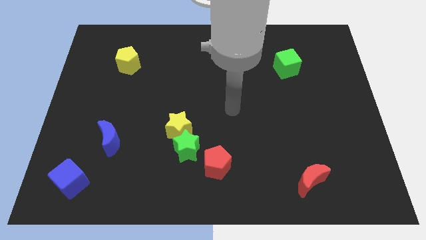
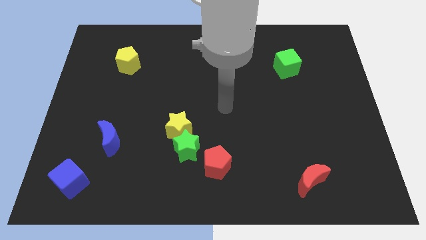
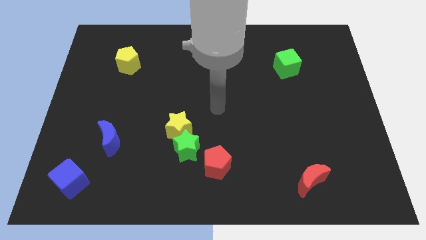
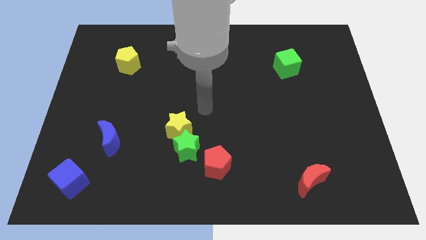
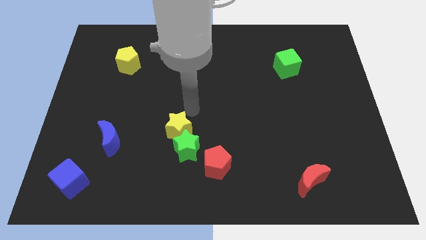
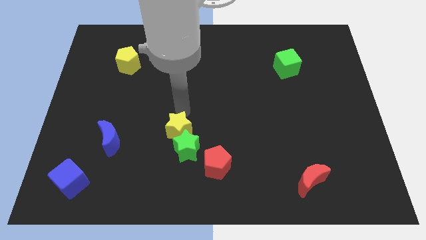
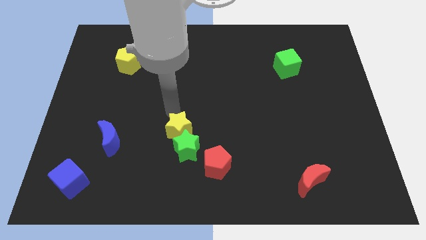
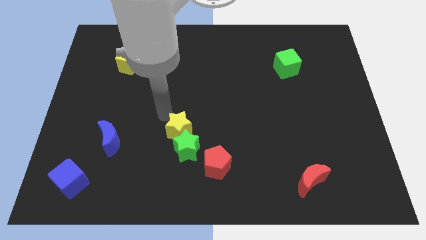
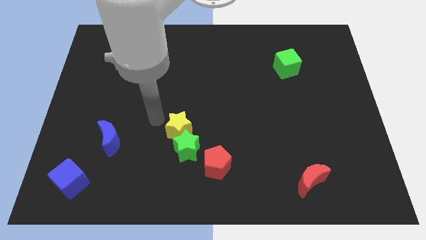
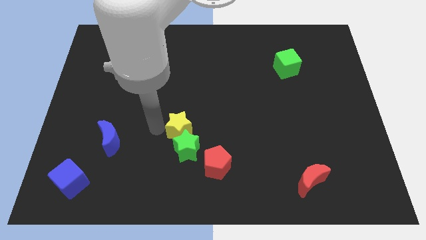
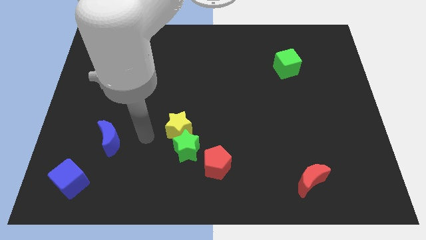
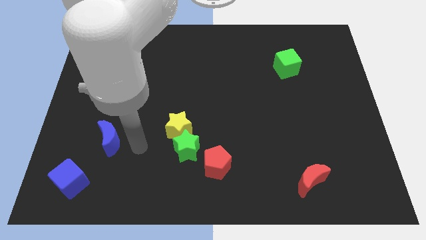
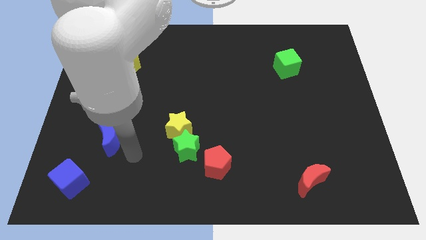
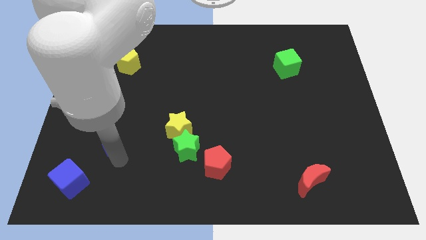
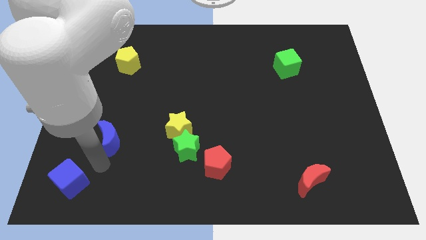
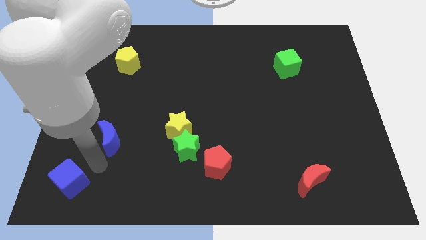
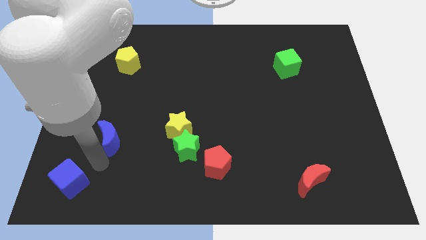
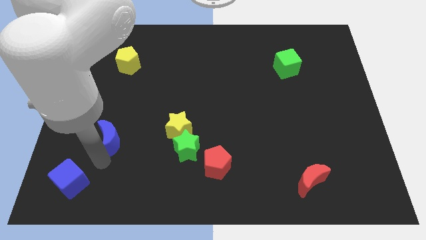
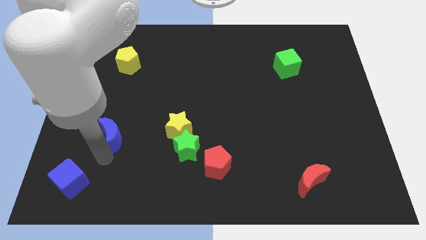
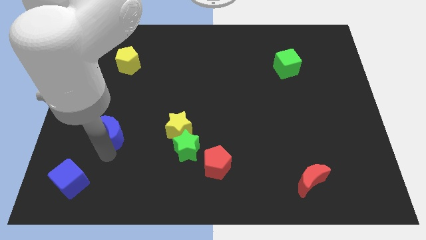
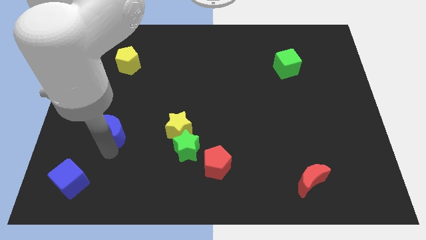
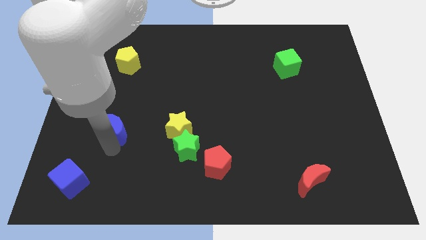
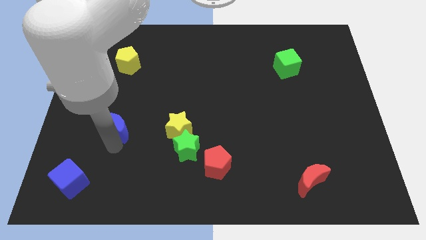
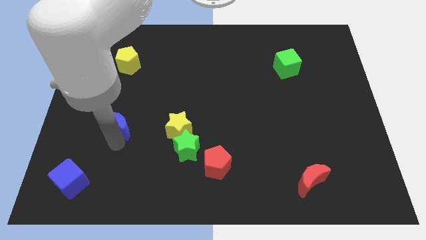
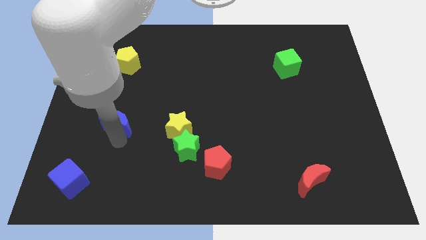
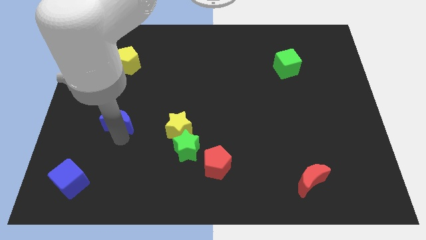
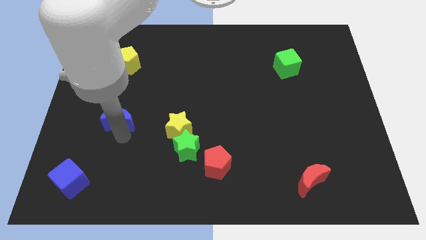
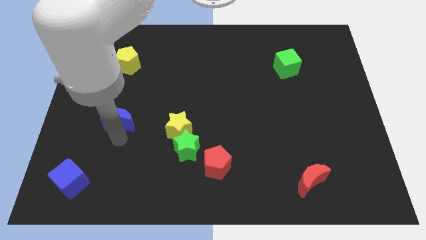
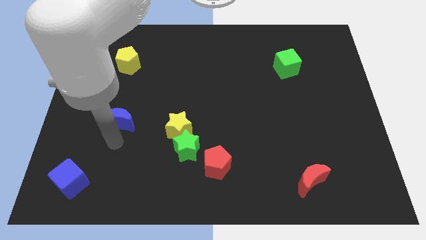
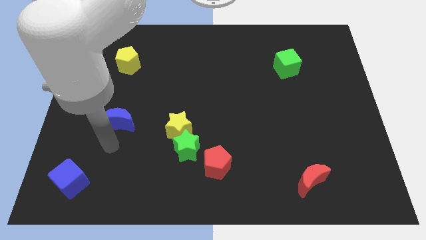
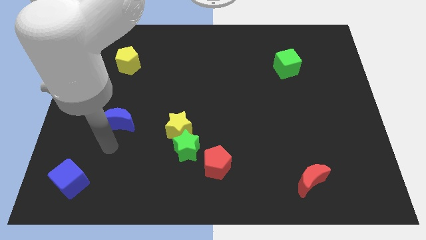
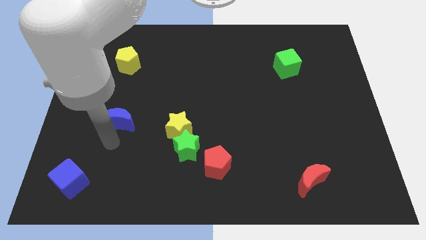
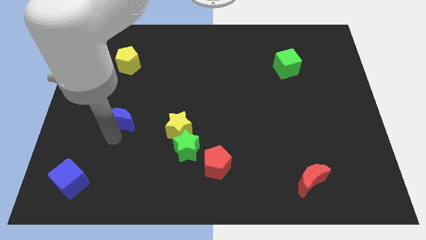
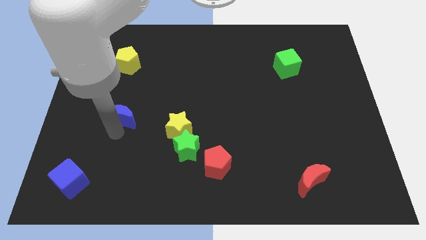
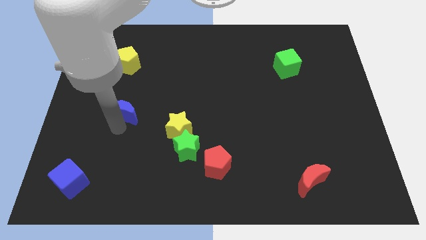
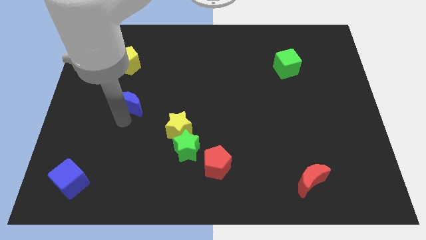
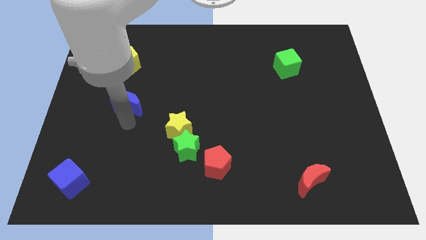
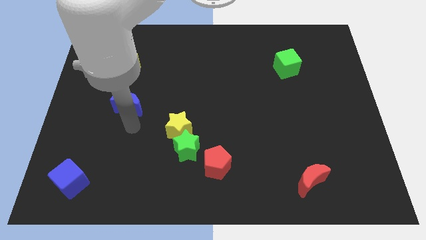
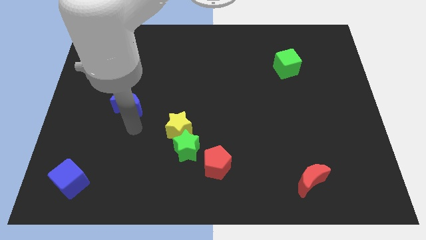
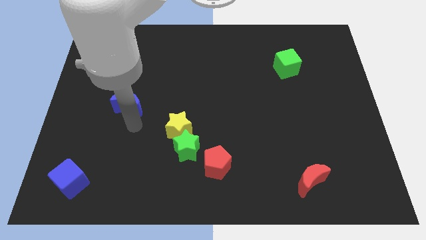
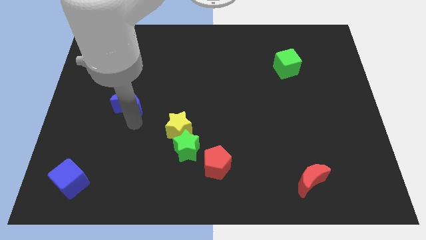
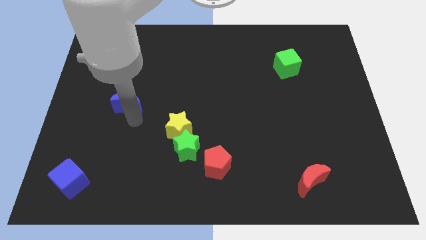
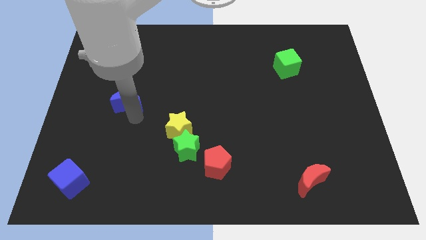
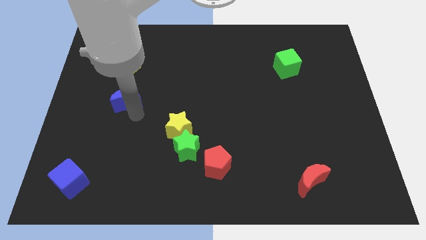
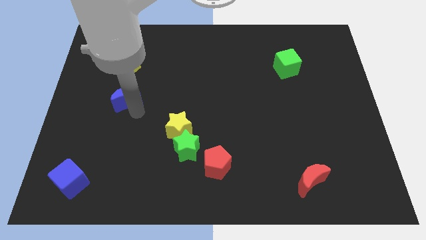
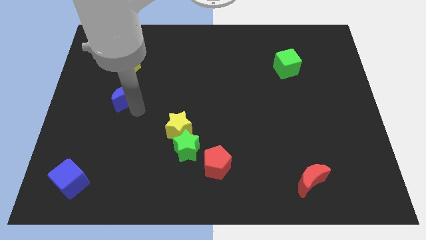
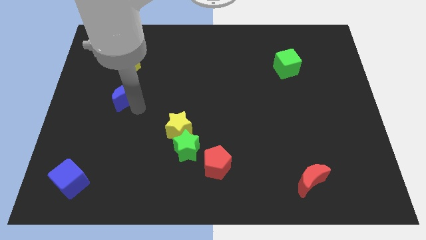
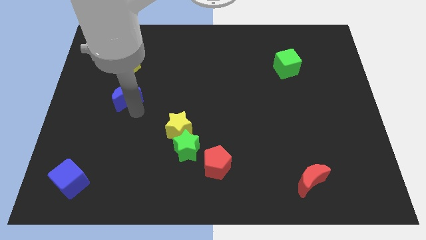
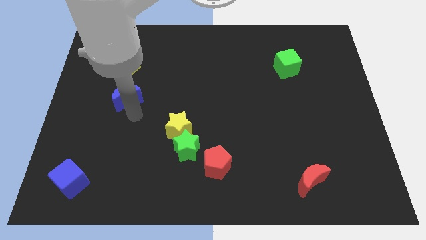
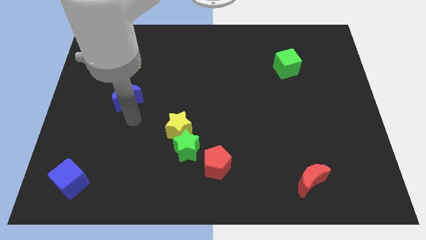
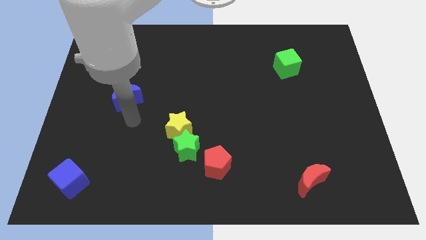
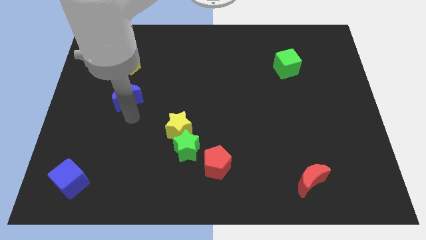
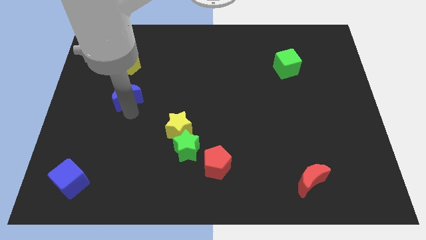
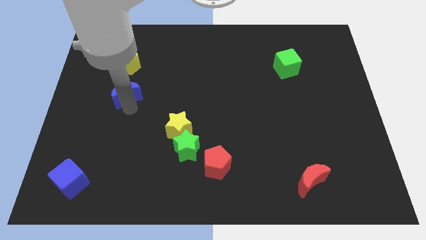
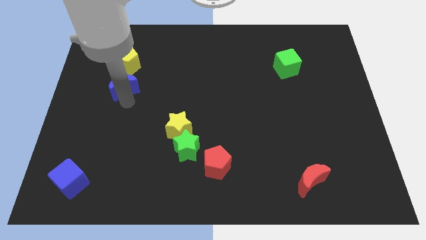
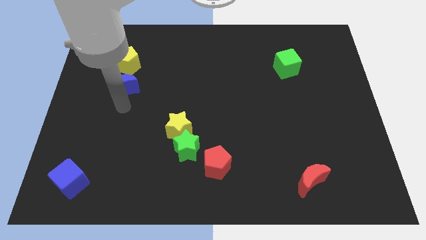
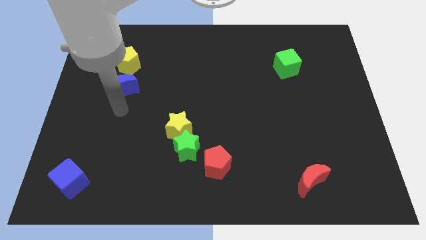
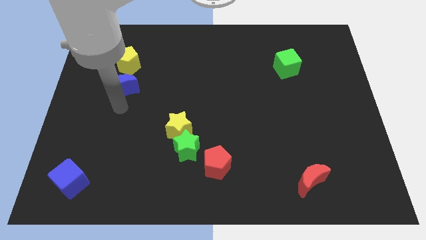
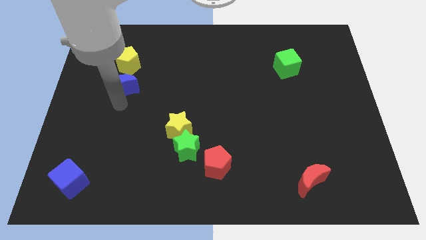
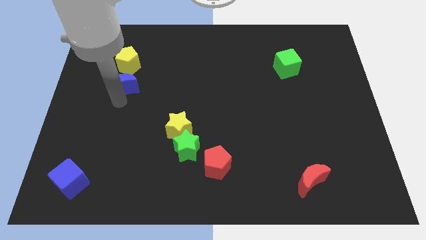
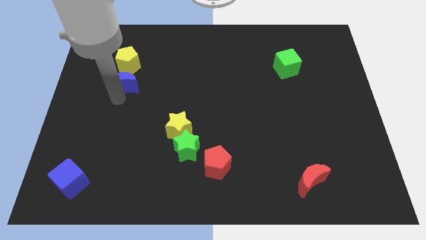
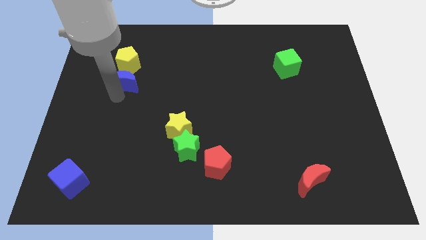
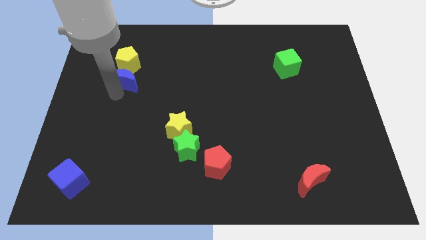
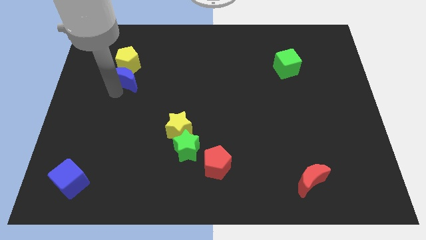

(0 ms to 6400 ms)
slide the blue moon towards the yellow pentagon

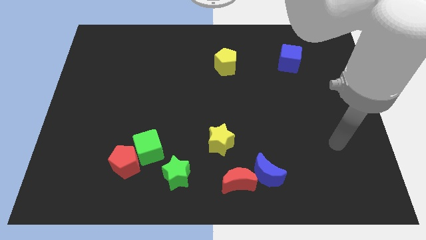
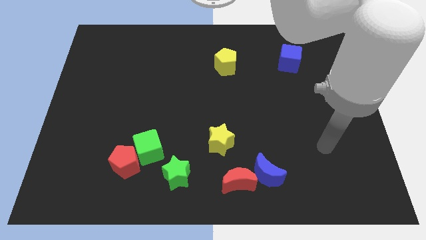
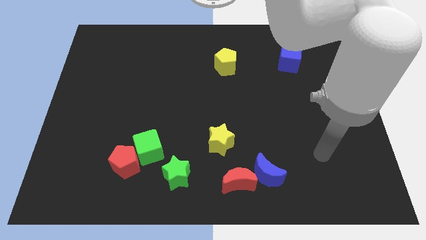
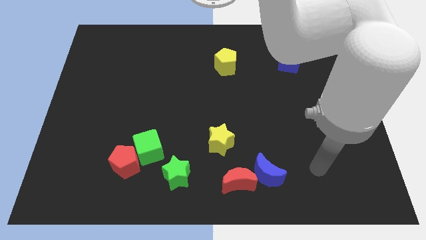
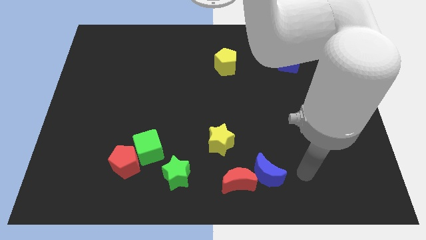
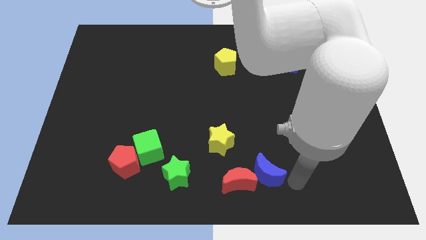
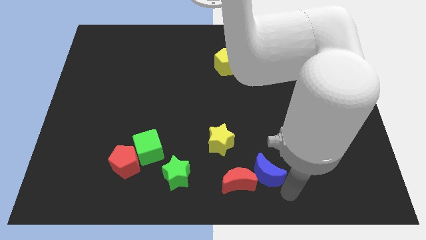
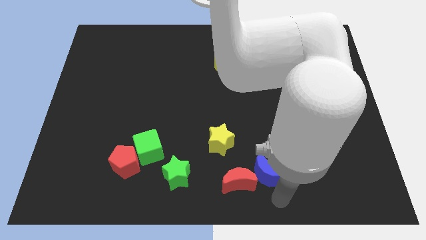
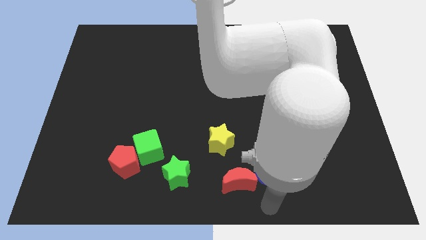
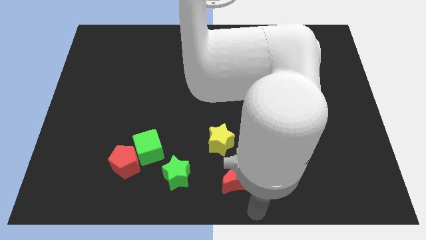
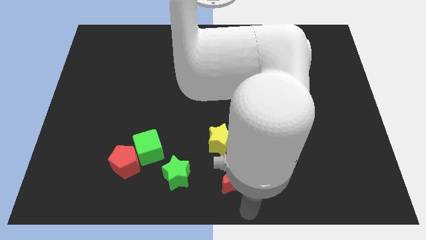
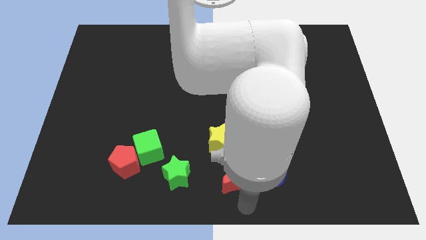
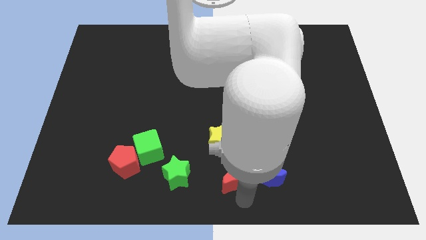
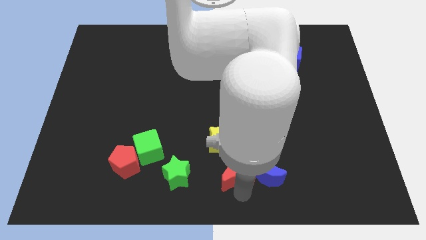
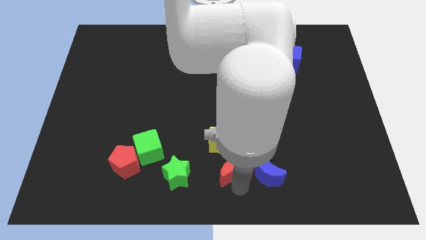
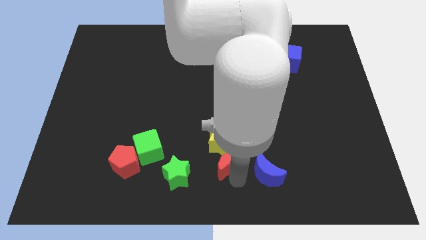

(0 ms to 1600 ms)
push the red moon to the yellow star
